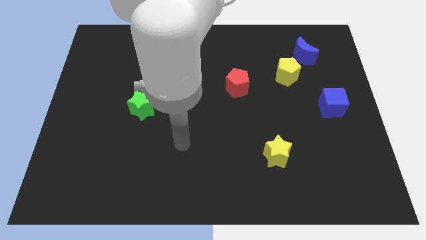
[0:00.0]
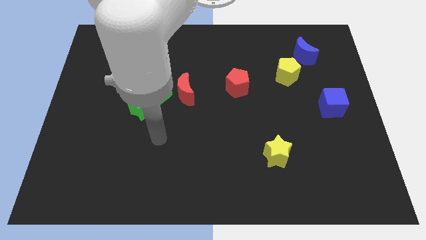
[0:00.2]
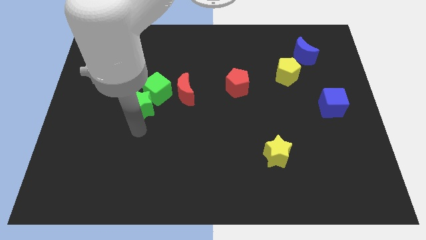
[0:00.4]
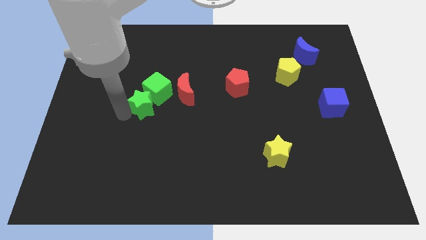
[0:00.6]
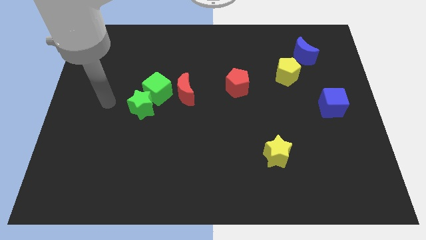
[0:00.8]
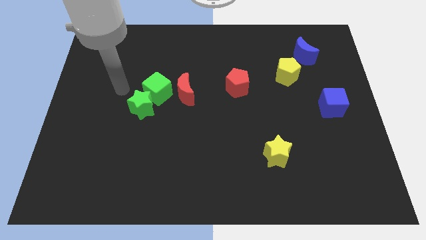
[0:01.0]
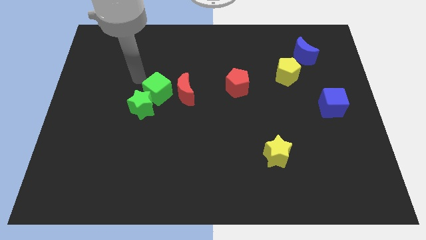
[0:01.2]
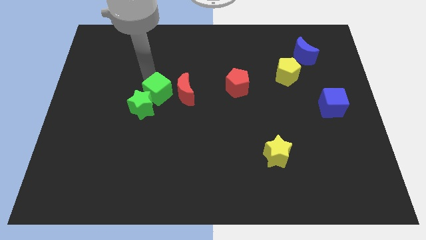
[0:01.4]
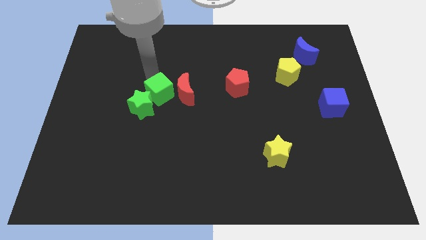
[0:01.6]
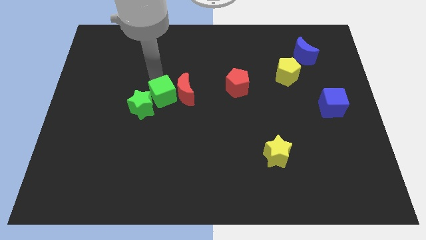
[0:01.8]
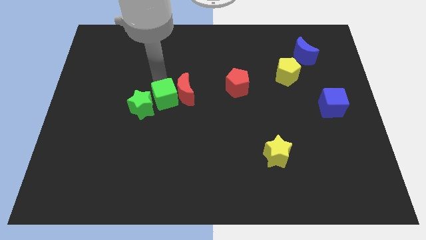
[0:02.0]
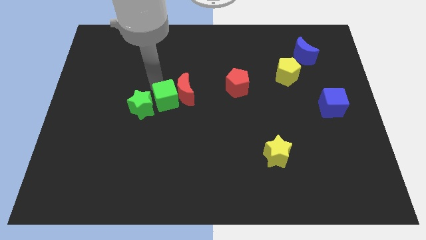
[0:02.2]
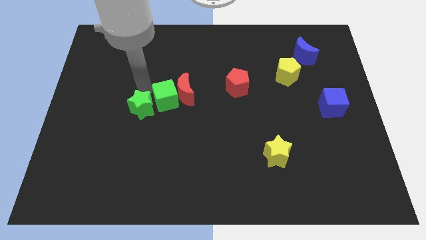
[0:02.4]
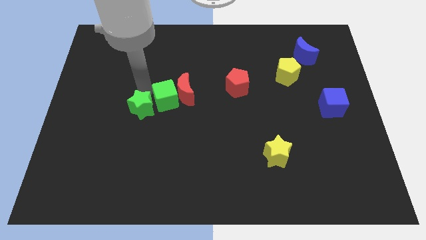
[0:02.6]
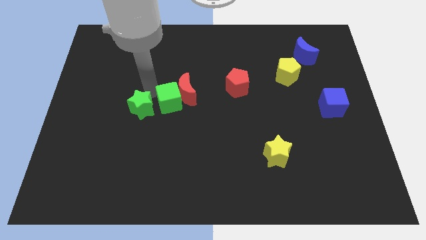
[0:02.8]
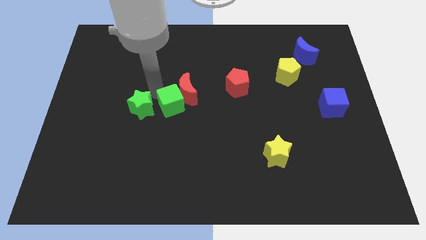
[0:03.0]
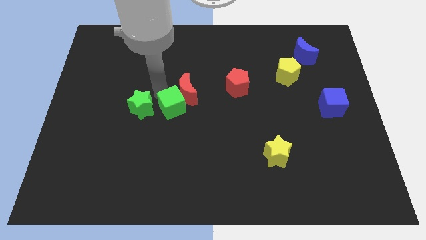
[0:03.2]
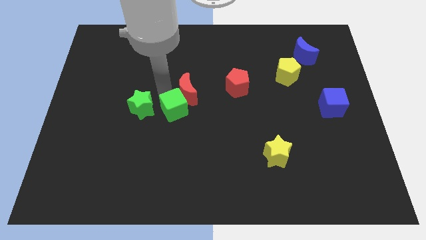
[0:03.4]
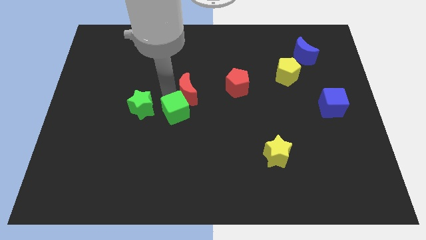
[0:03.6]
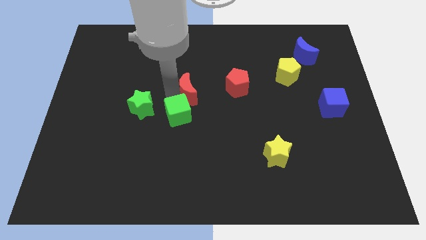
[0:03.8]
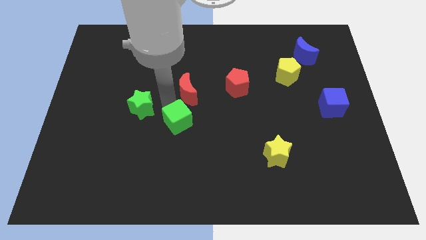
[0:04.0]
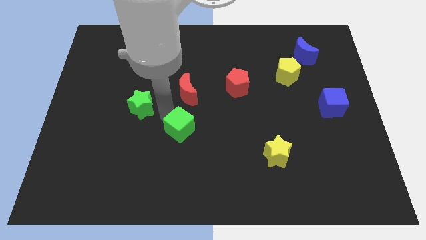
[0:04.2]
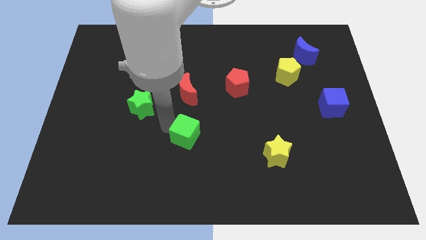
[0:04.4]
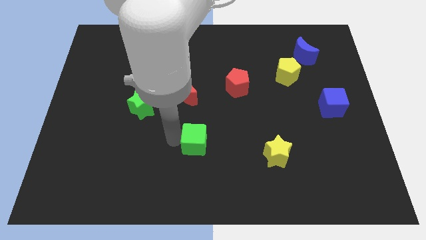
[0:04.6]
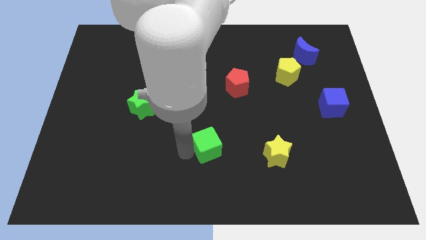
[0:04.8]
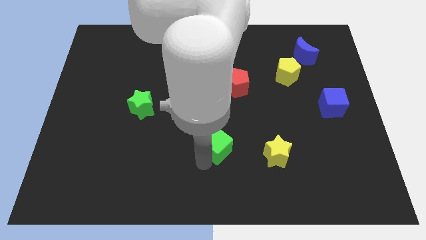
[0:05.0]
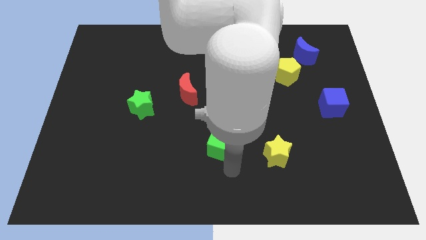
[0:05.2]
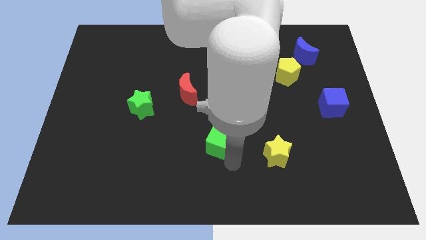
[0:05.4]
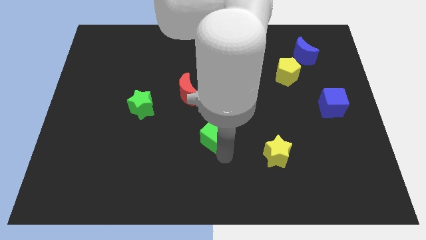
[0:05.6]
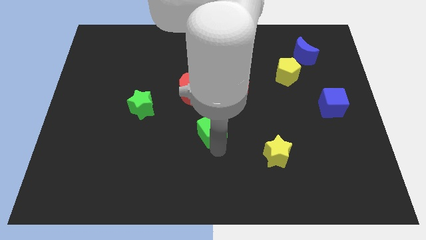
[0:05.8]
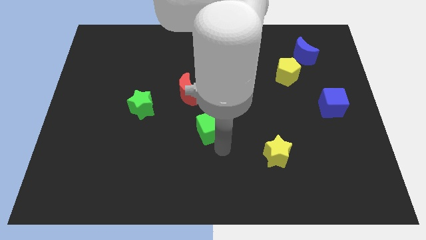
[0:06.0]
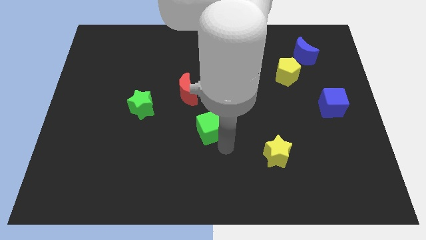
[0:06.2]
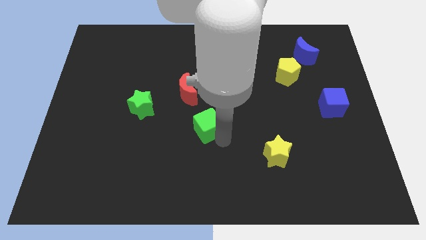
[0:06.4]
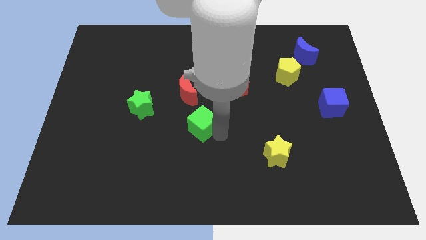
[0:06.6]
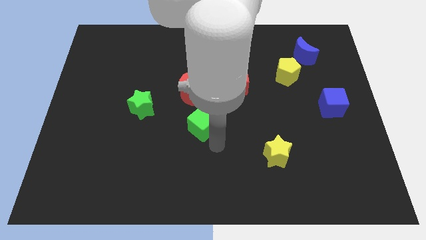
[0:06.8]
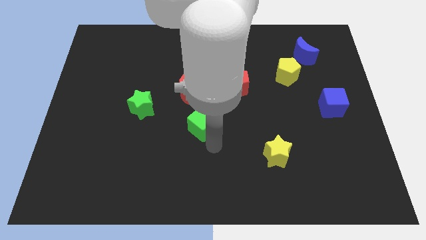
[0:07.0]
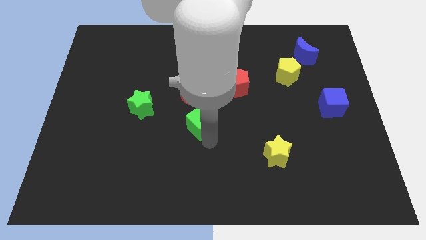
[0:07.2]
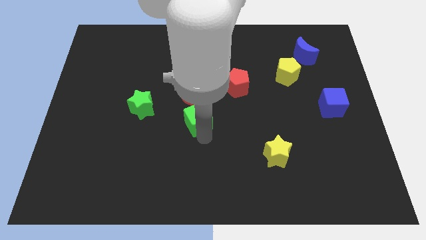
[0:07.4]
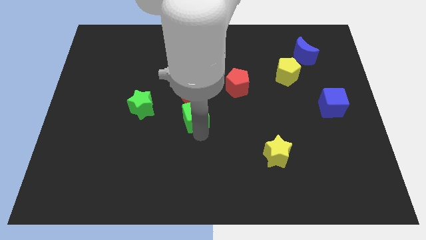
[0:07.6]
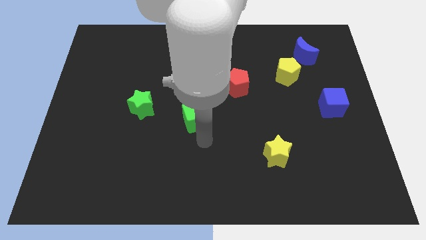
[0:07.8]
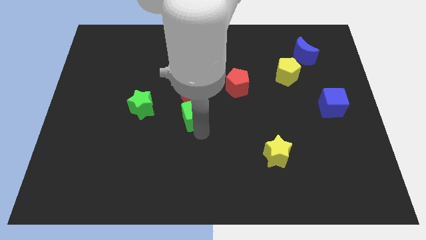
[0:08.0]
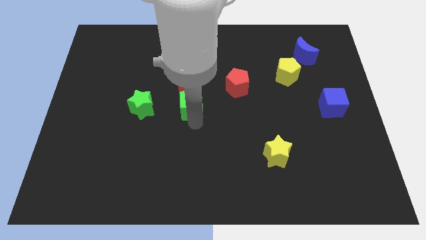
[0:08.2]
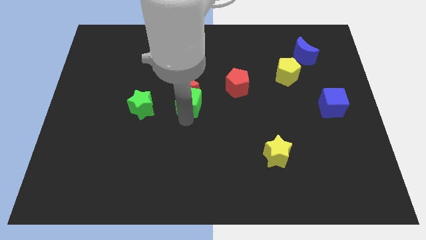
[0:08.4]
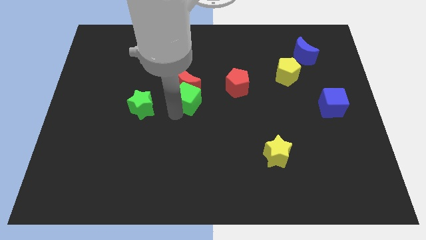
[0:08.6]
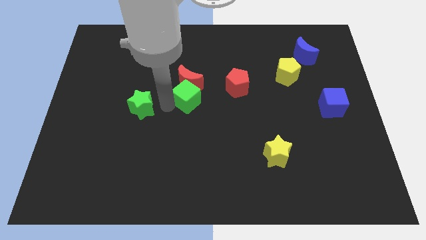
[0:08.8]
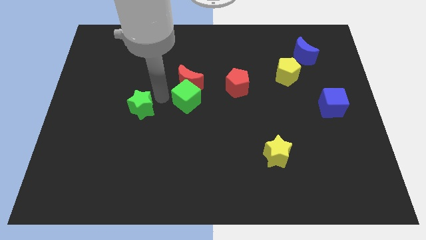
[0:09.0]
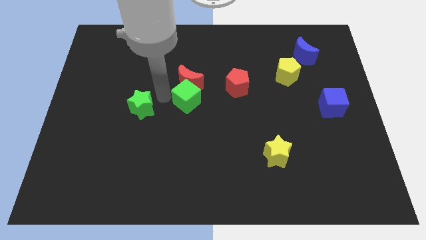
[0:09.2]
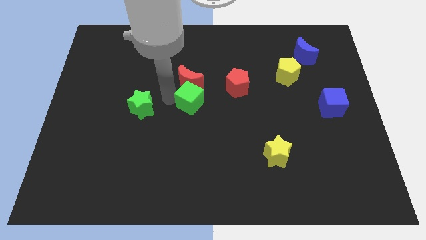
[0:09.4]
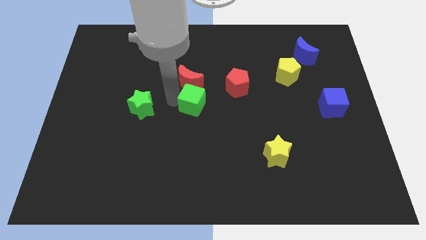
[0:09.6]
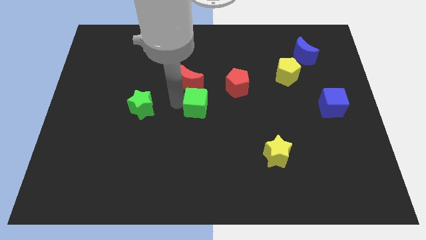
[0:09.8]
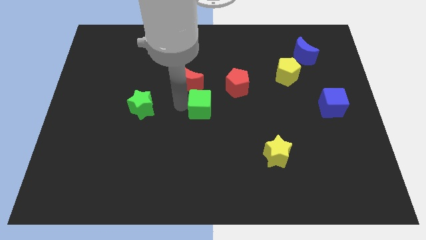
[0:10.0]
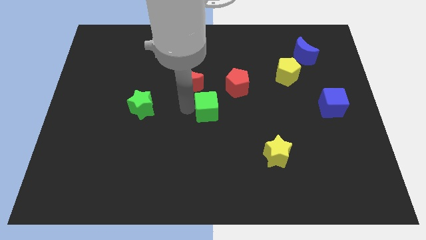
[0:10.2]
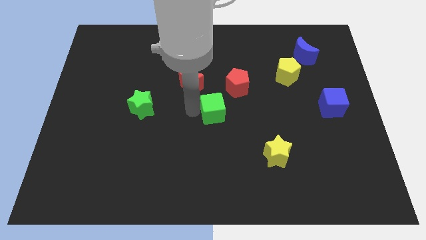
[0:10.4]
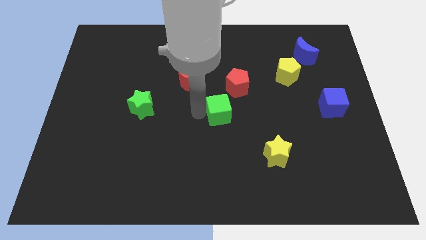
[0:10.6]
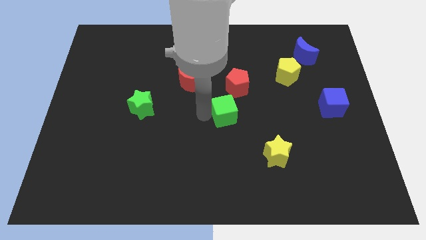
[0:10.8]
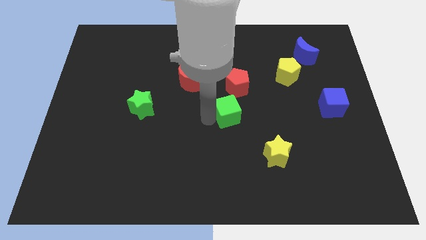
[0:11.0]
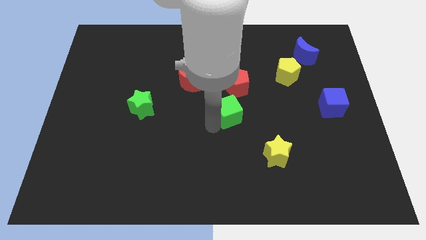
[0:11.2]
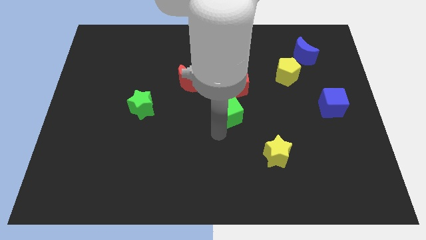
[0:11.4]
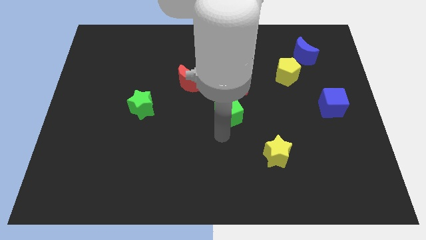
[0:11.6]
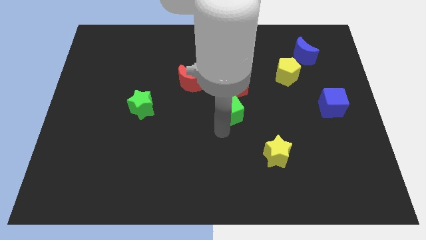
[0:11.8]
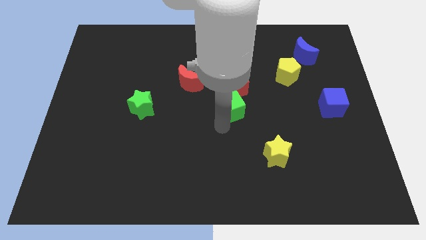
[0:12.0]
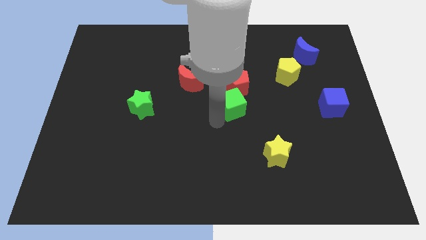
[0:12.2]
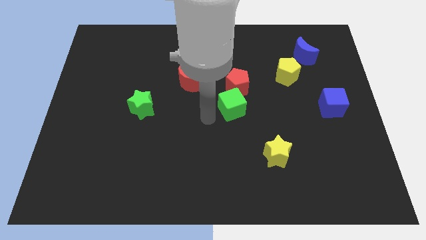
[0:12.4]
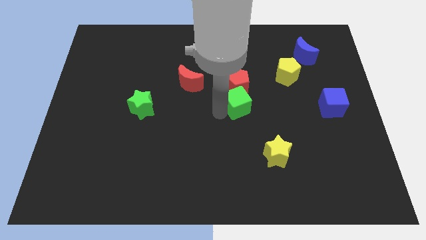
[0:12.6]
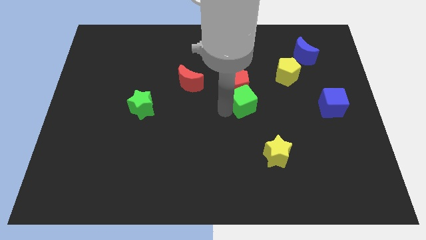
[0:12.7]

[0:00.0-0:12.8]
slide the green cube to the right

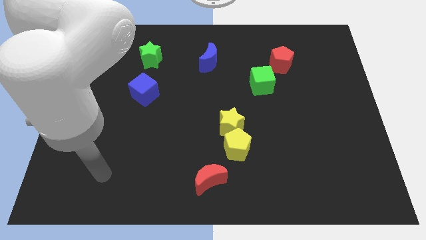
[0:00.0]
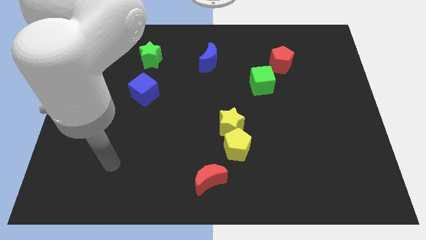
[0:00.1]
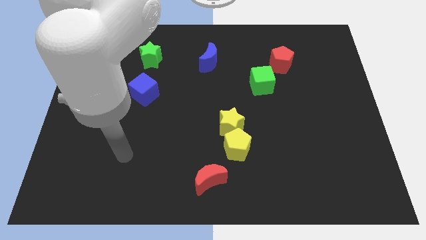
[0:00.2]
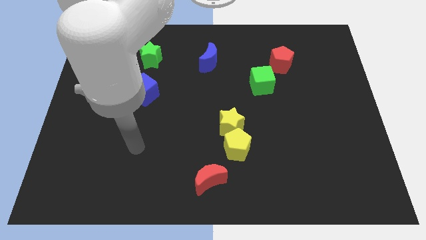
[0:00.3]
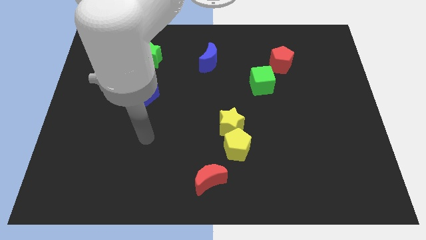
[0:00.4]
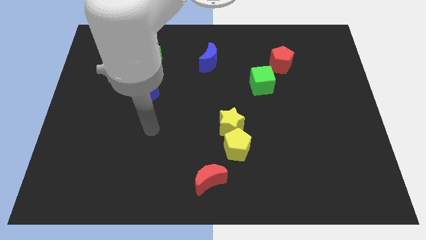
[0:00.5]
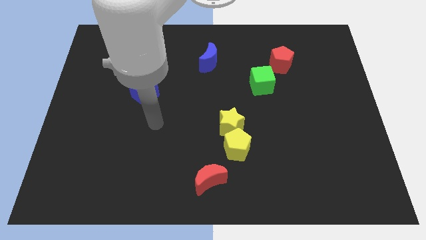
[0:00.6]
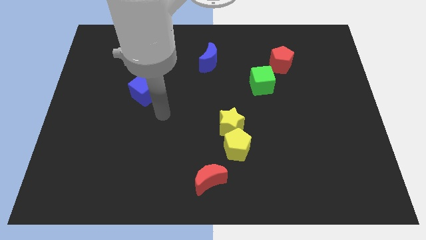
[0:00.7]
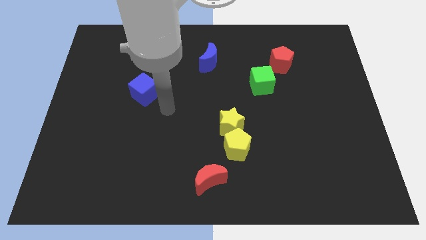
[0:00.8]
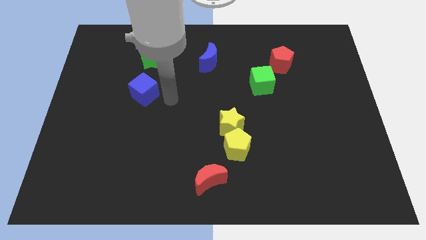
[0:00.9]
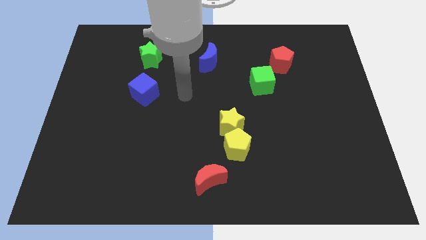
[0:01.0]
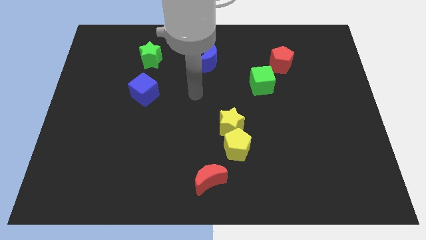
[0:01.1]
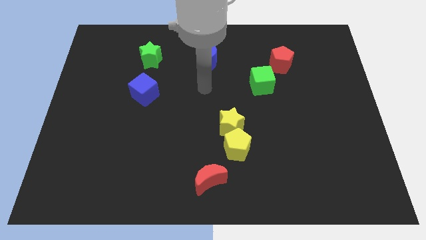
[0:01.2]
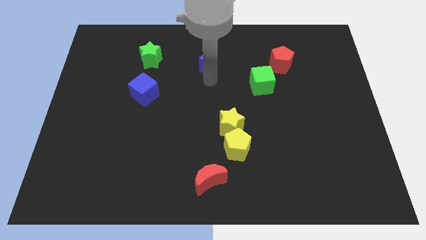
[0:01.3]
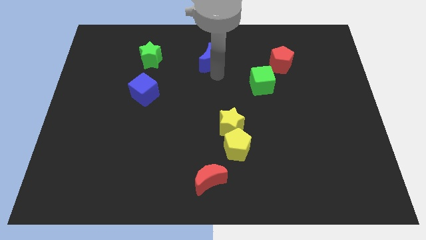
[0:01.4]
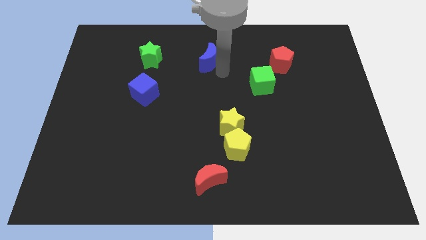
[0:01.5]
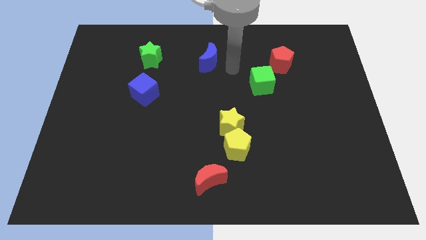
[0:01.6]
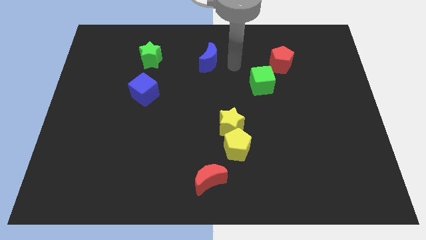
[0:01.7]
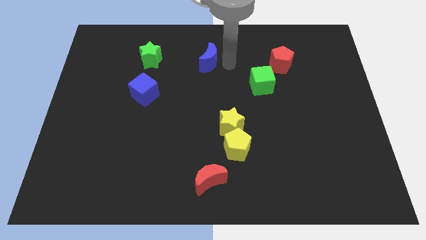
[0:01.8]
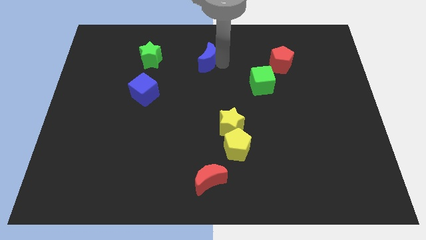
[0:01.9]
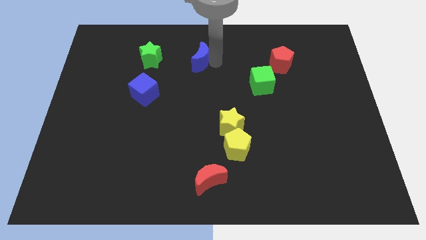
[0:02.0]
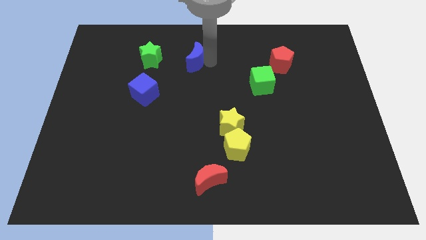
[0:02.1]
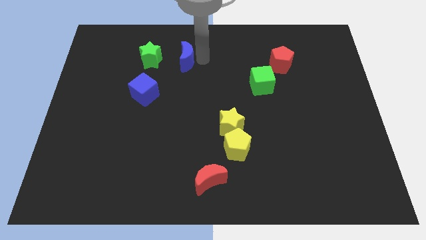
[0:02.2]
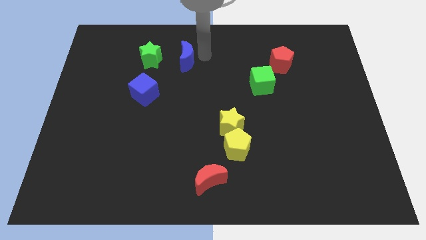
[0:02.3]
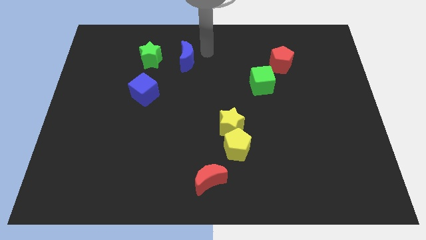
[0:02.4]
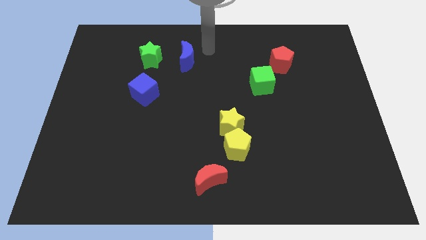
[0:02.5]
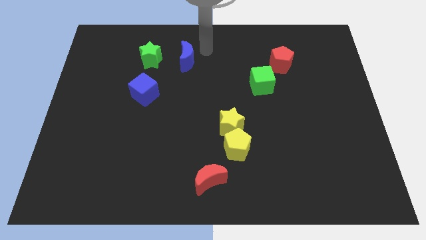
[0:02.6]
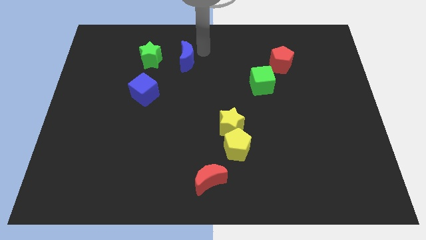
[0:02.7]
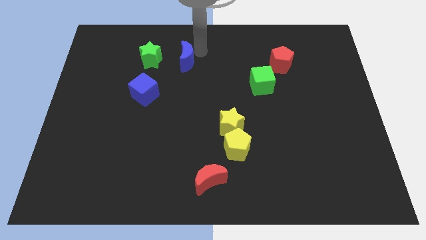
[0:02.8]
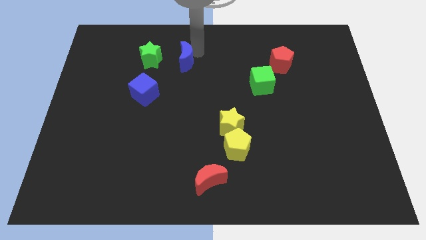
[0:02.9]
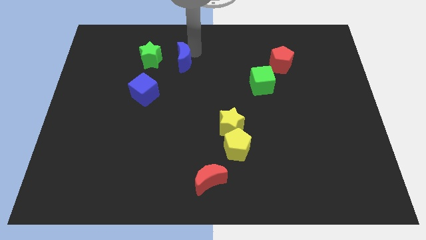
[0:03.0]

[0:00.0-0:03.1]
slightly slide the blue moon to the left
